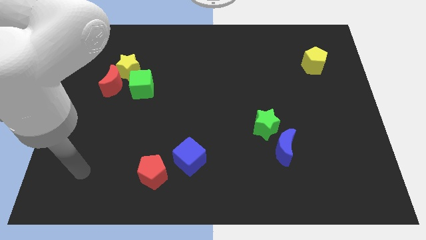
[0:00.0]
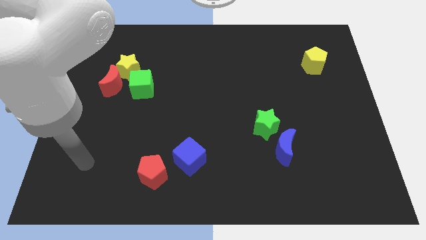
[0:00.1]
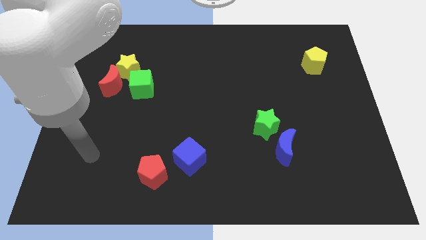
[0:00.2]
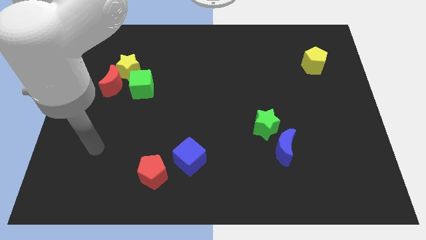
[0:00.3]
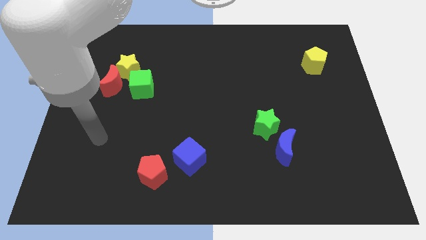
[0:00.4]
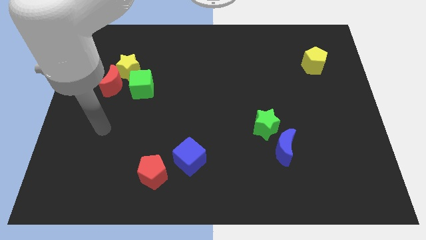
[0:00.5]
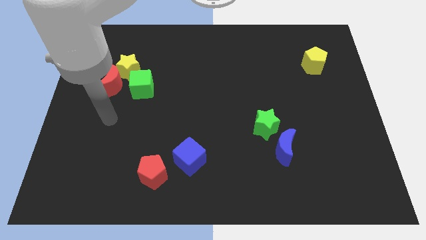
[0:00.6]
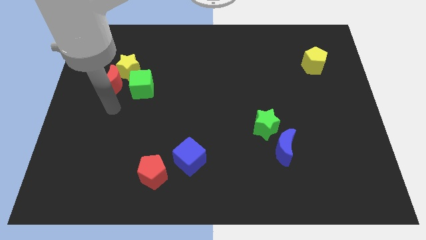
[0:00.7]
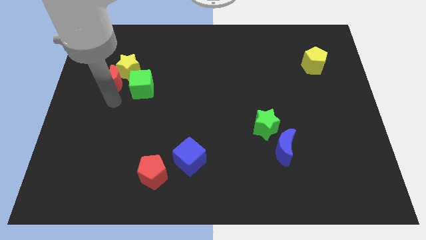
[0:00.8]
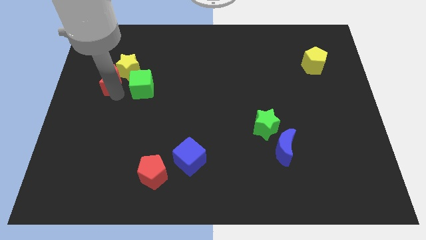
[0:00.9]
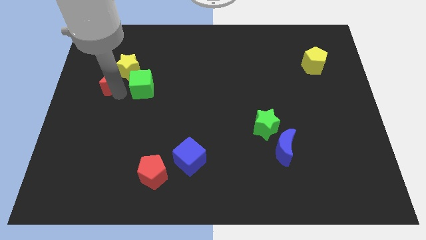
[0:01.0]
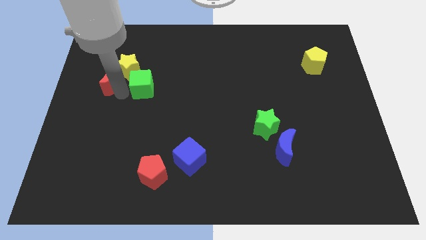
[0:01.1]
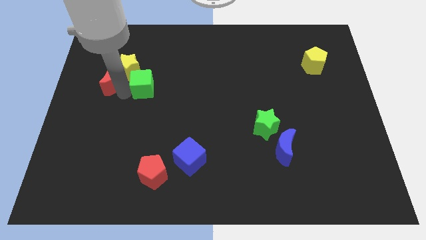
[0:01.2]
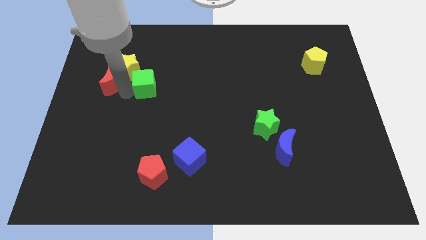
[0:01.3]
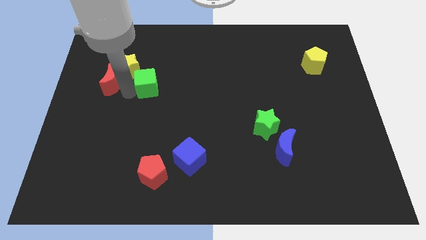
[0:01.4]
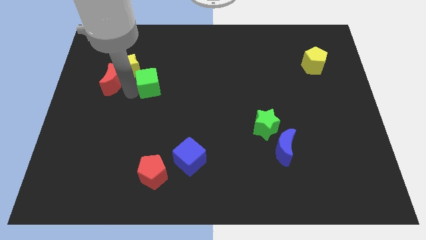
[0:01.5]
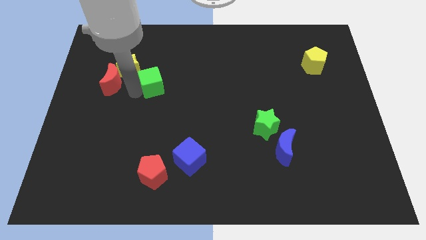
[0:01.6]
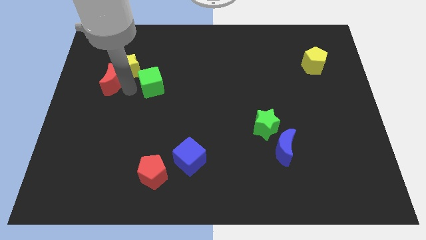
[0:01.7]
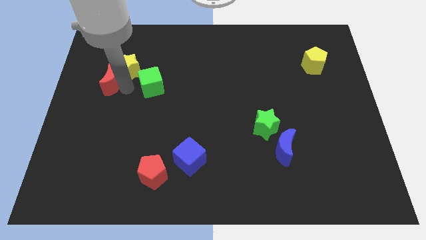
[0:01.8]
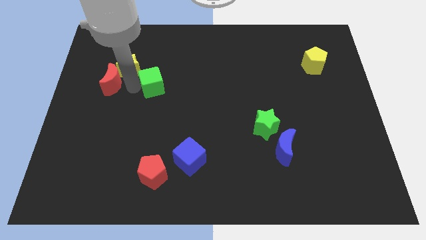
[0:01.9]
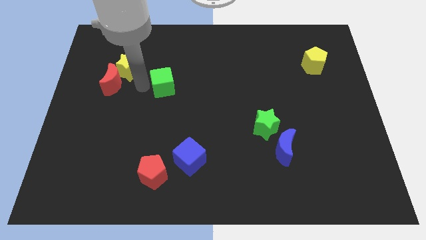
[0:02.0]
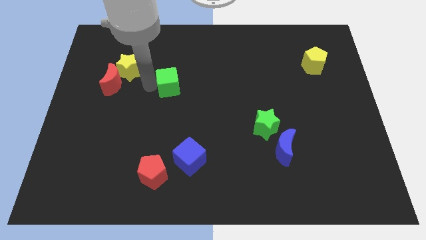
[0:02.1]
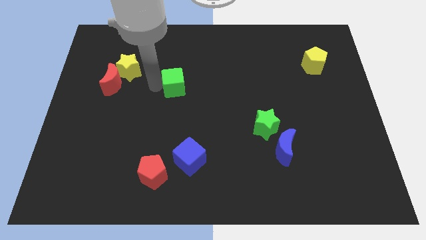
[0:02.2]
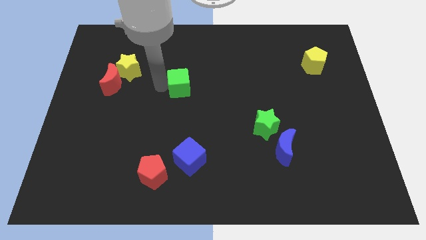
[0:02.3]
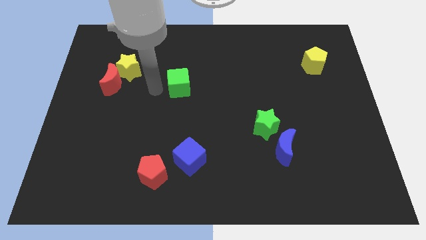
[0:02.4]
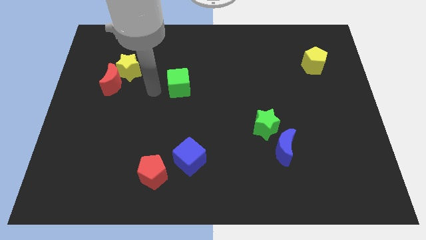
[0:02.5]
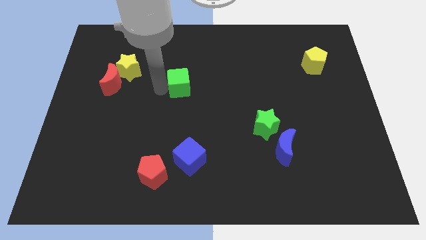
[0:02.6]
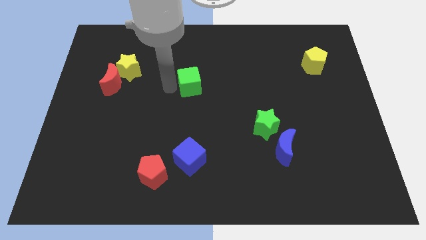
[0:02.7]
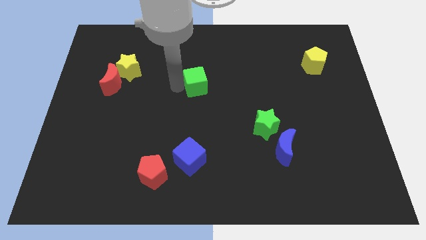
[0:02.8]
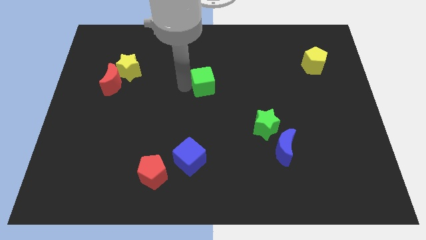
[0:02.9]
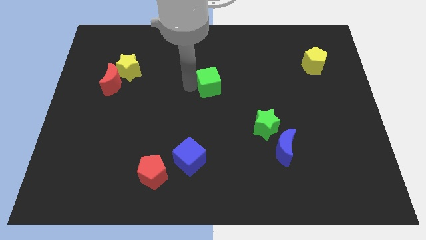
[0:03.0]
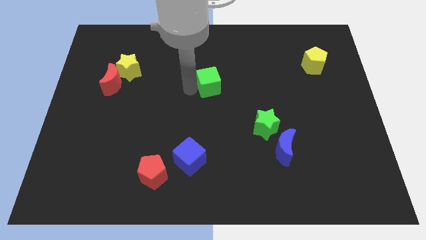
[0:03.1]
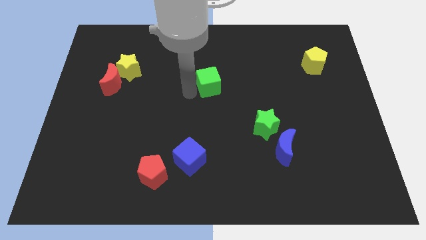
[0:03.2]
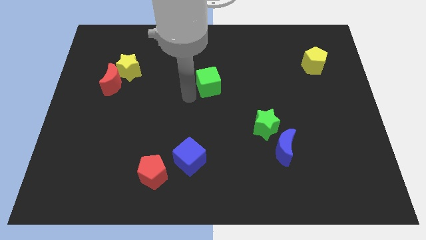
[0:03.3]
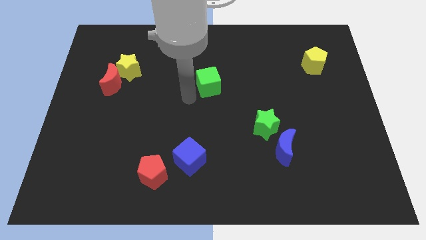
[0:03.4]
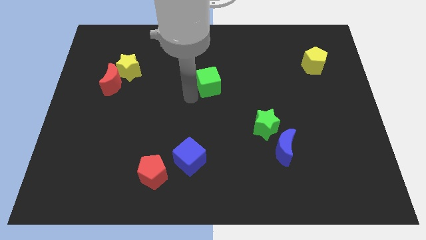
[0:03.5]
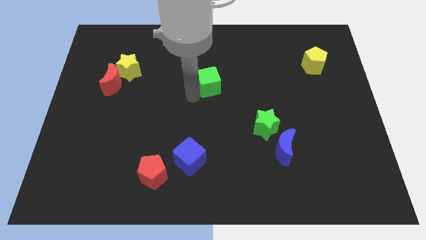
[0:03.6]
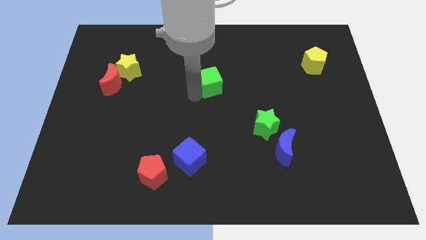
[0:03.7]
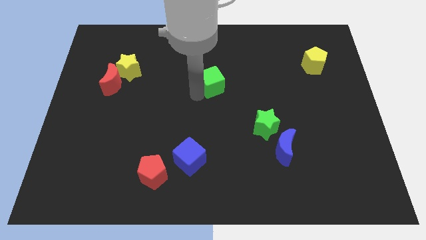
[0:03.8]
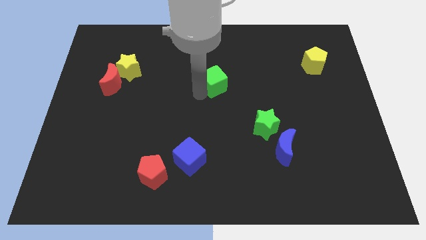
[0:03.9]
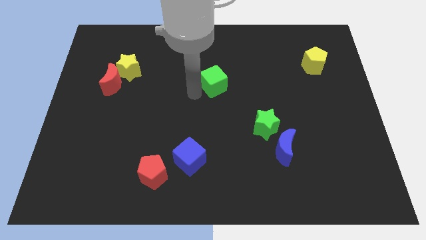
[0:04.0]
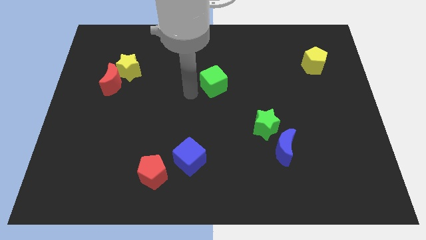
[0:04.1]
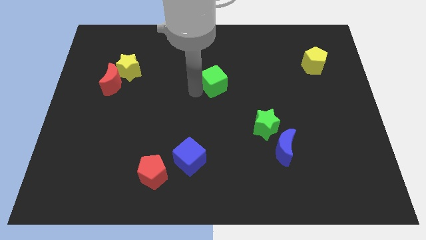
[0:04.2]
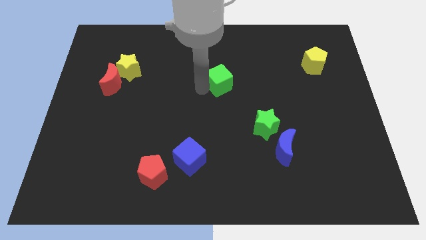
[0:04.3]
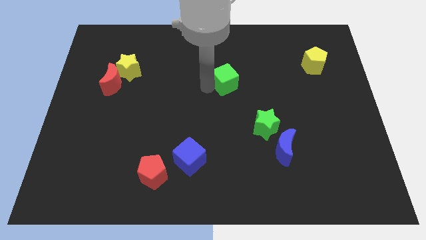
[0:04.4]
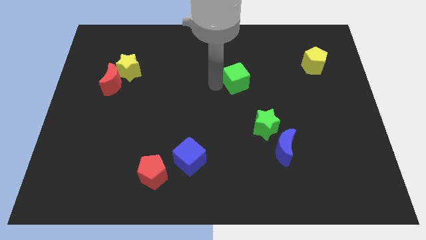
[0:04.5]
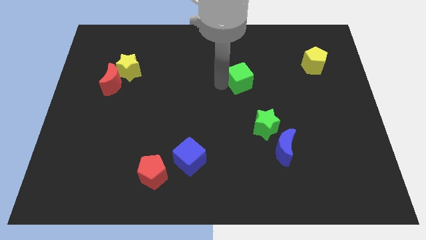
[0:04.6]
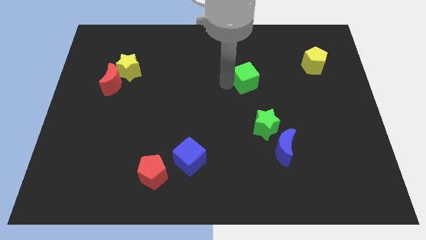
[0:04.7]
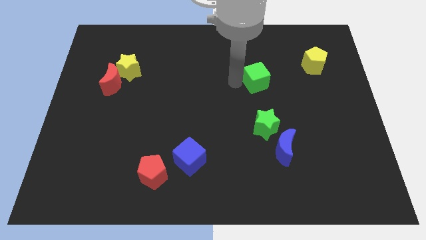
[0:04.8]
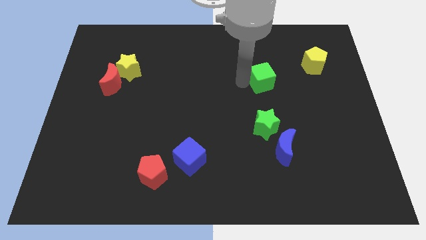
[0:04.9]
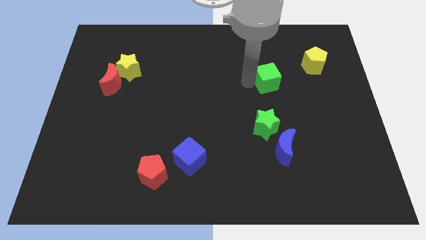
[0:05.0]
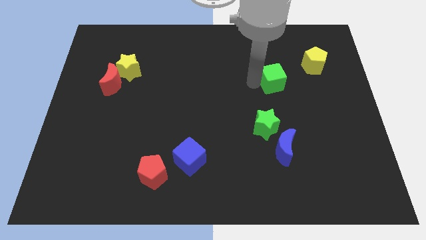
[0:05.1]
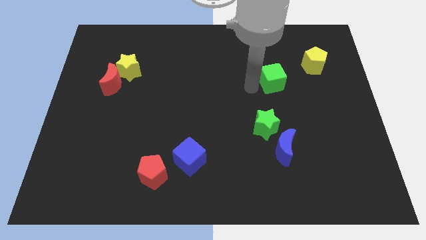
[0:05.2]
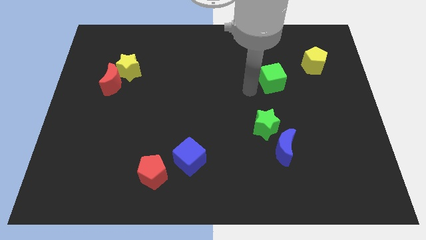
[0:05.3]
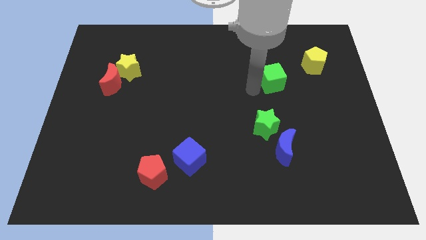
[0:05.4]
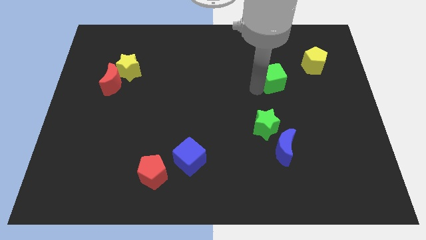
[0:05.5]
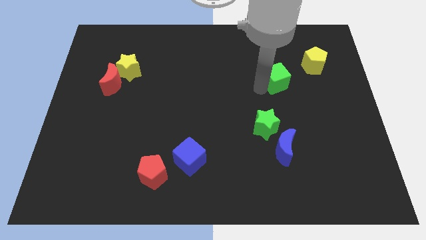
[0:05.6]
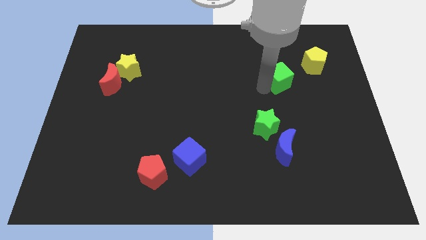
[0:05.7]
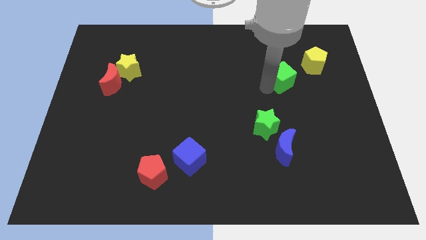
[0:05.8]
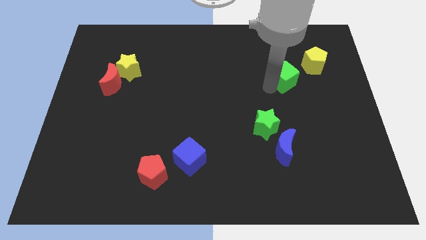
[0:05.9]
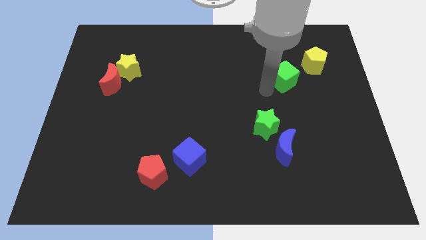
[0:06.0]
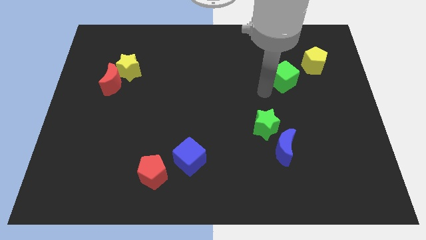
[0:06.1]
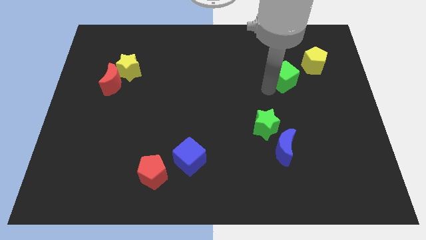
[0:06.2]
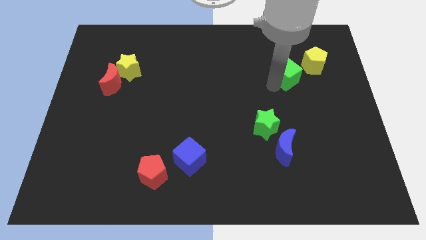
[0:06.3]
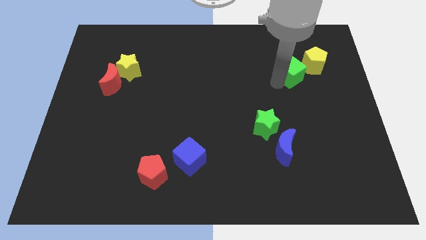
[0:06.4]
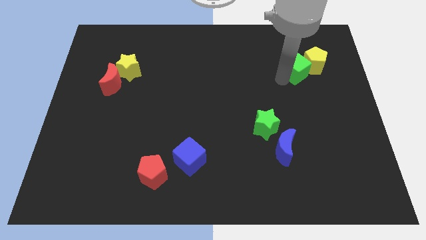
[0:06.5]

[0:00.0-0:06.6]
slide the green cube towards the yellow pentagon
